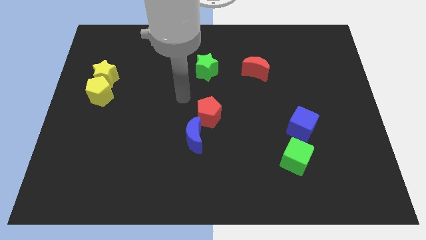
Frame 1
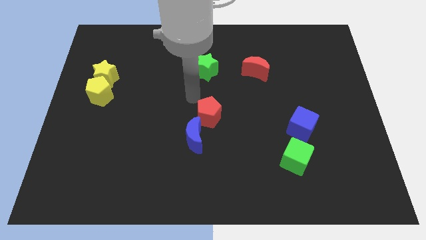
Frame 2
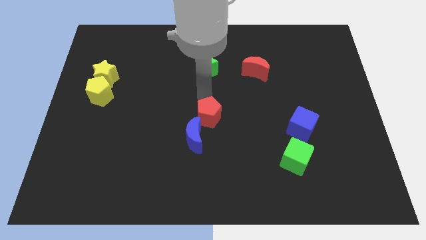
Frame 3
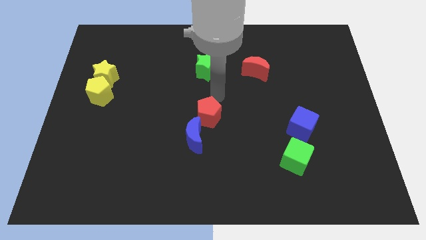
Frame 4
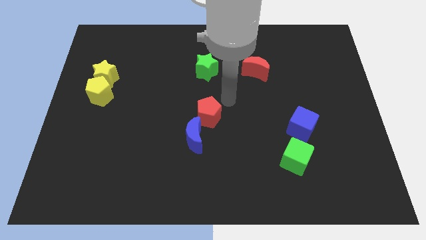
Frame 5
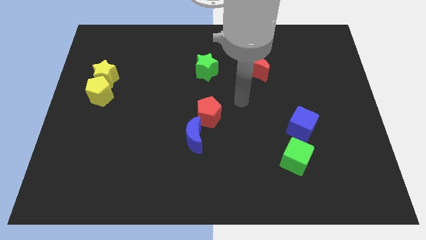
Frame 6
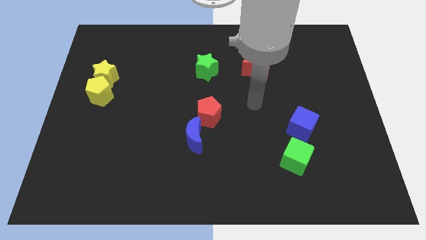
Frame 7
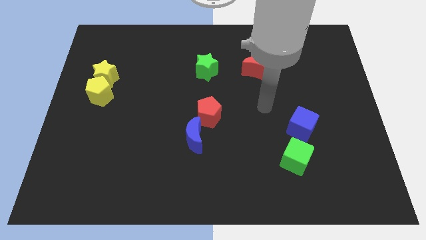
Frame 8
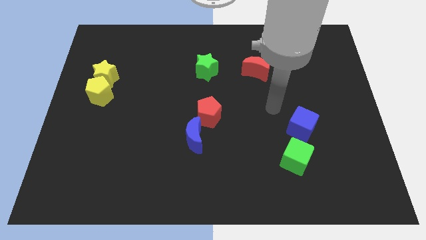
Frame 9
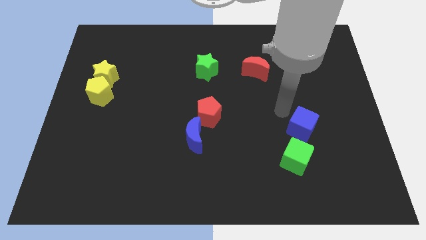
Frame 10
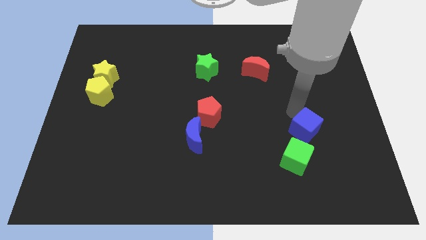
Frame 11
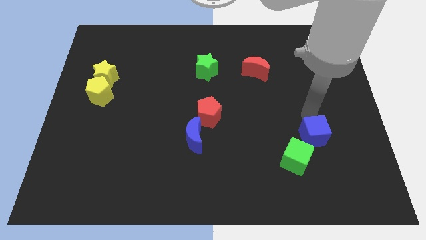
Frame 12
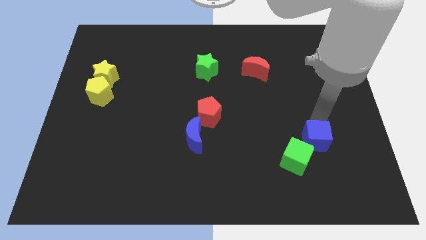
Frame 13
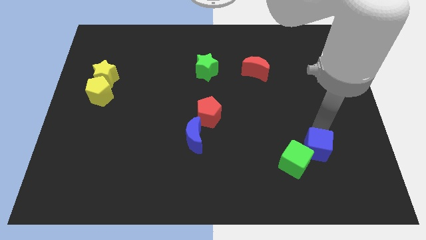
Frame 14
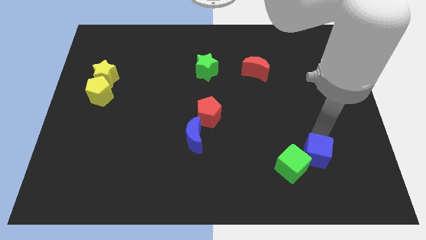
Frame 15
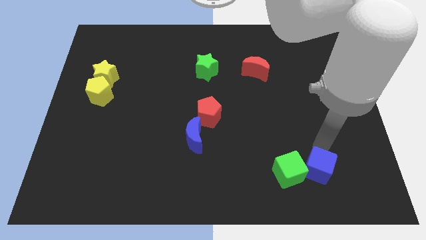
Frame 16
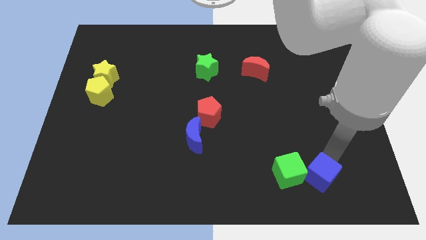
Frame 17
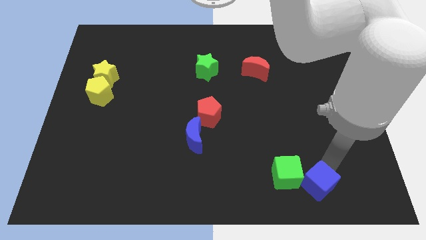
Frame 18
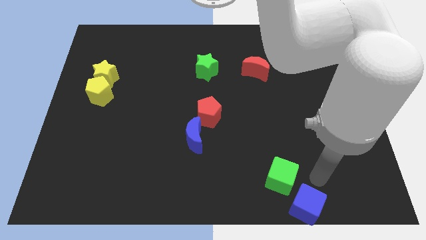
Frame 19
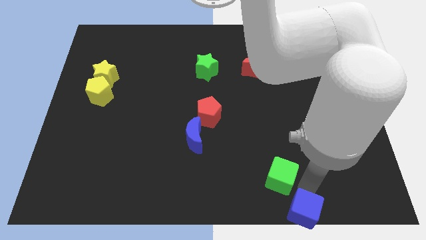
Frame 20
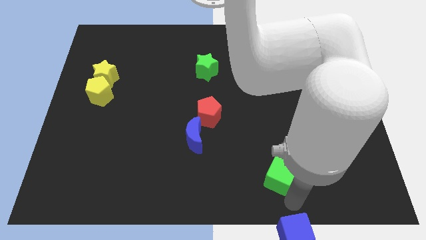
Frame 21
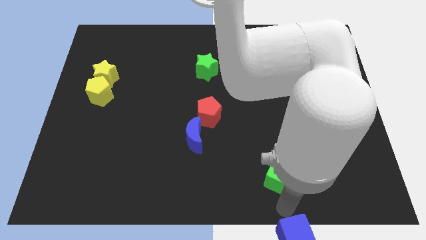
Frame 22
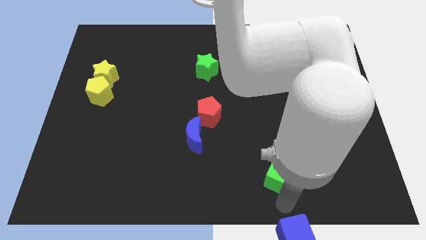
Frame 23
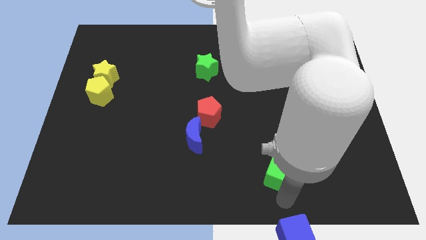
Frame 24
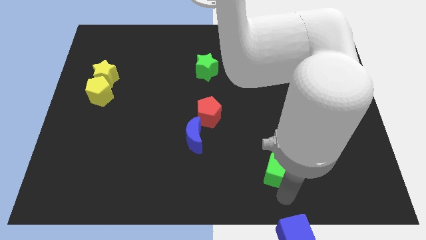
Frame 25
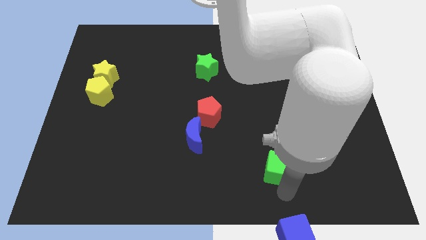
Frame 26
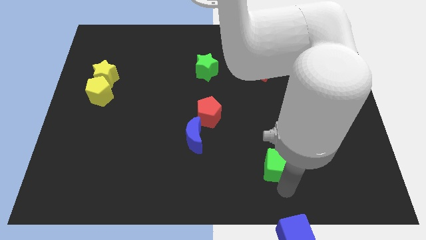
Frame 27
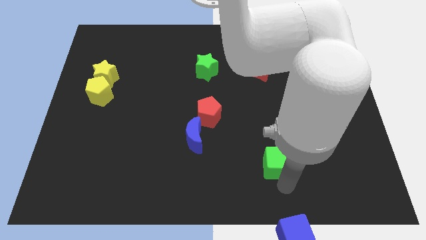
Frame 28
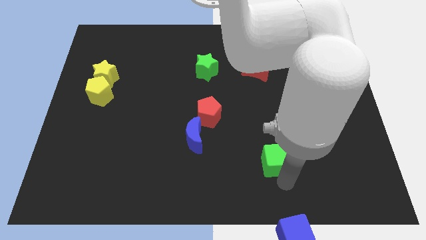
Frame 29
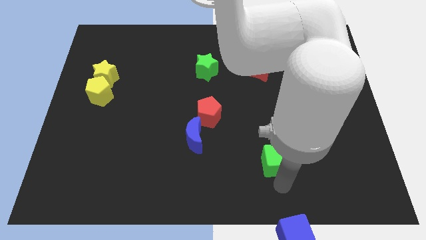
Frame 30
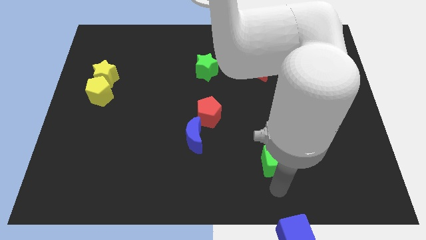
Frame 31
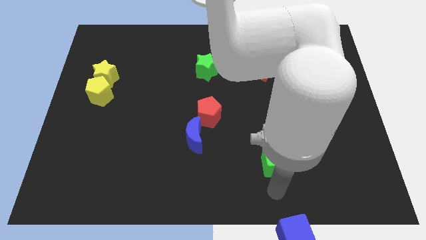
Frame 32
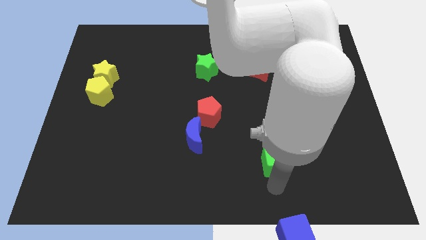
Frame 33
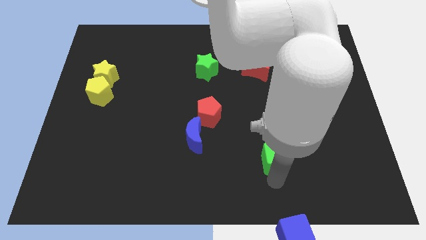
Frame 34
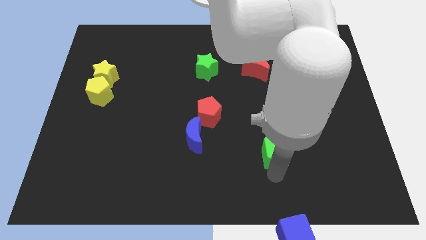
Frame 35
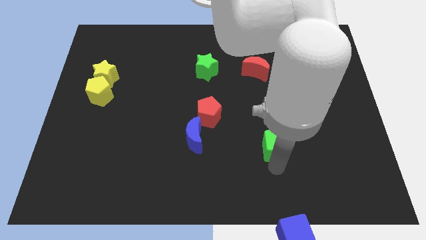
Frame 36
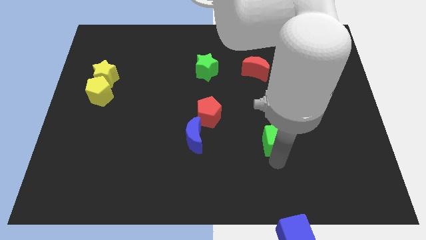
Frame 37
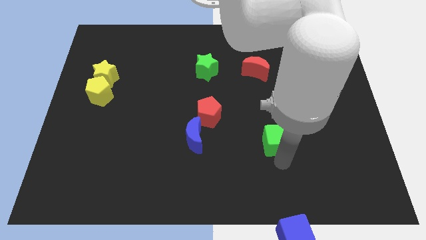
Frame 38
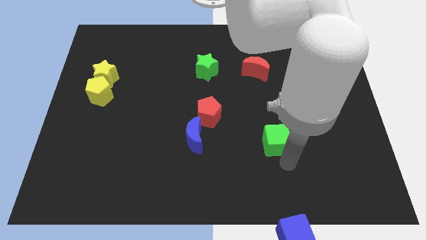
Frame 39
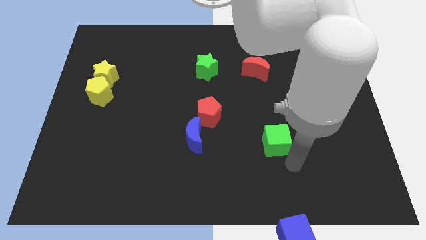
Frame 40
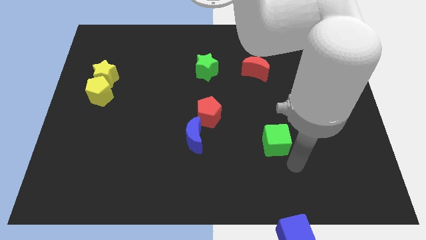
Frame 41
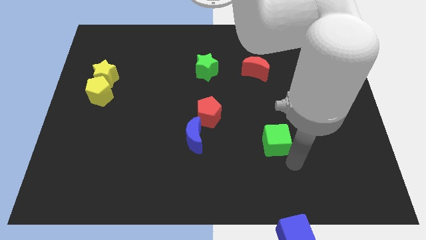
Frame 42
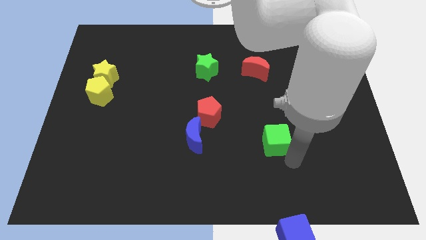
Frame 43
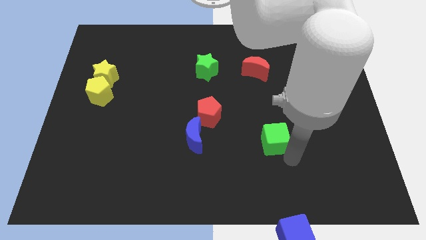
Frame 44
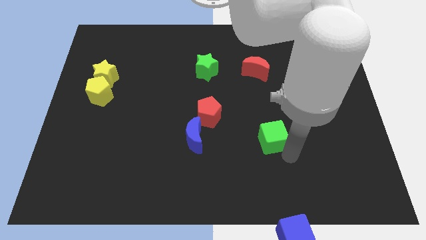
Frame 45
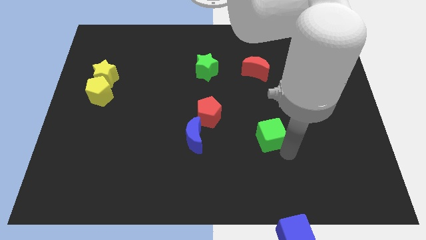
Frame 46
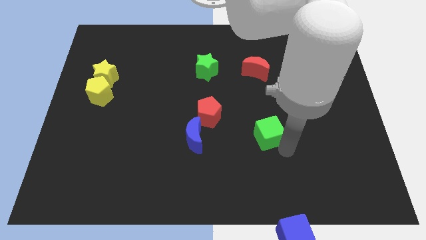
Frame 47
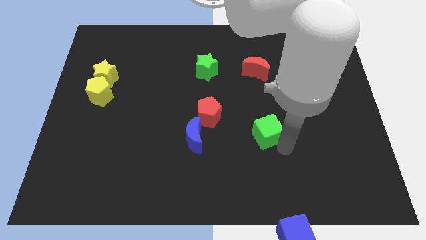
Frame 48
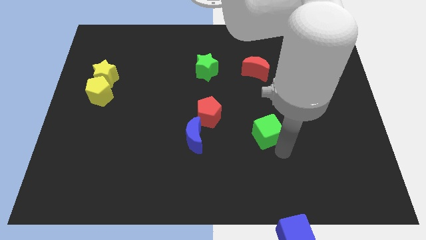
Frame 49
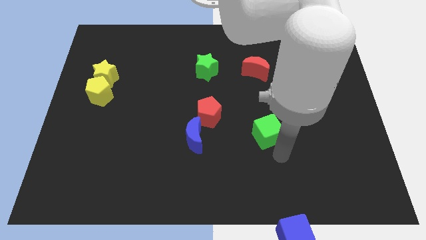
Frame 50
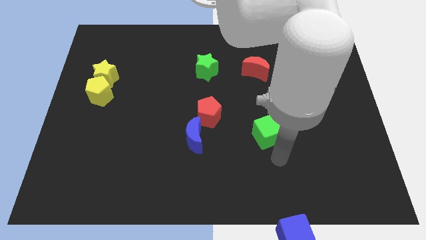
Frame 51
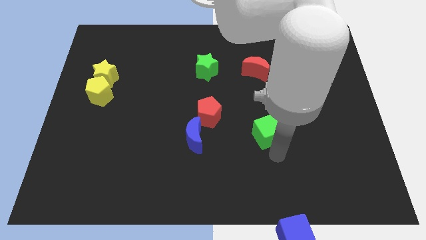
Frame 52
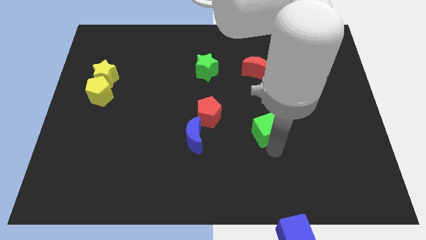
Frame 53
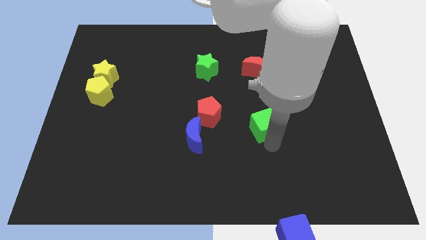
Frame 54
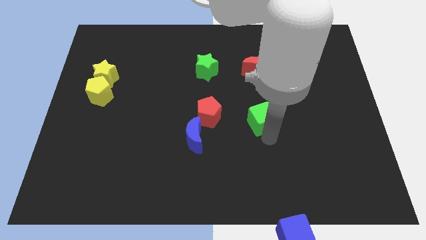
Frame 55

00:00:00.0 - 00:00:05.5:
move the green cube to the center of the board

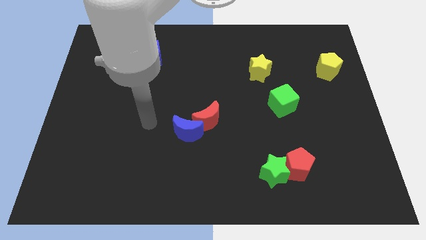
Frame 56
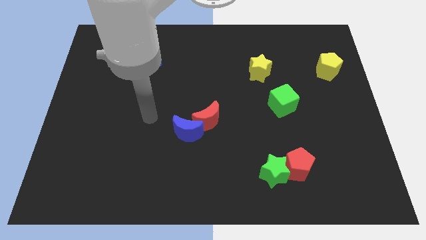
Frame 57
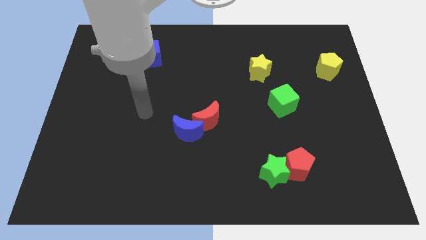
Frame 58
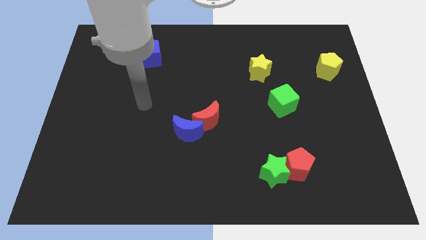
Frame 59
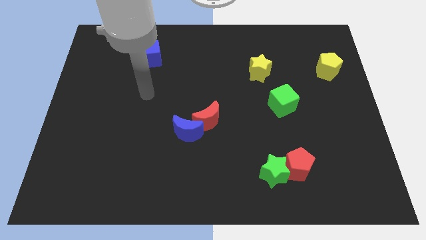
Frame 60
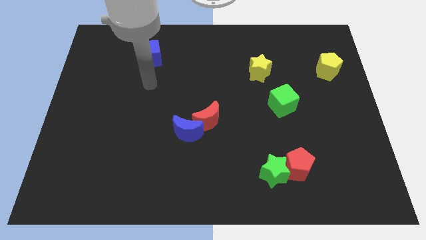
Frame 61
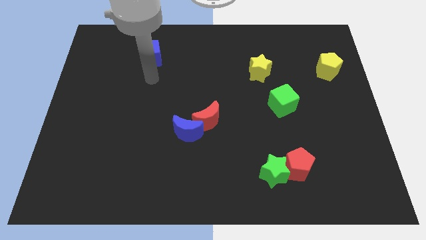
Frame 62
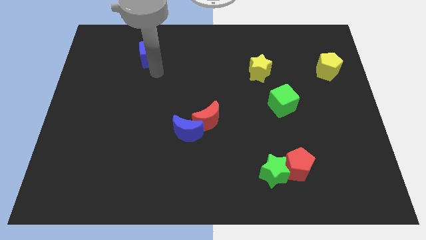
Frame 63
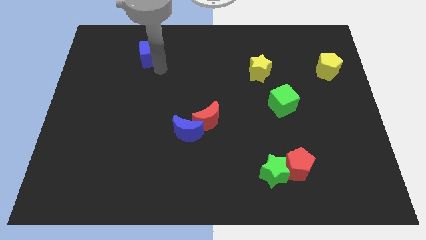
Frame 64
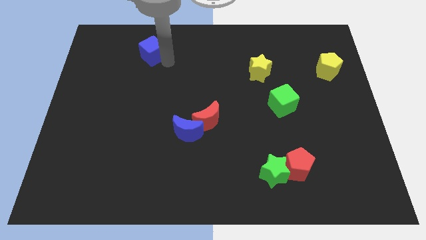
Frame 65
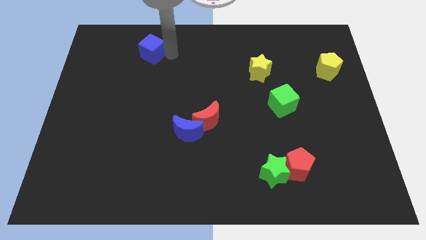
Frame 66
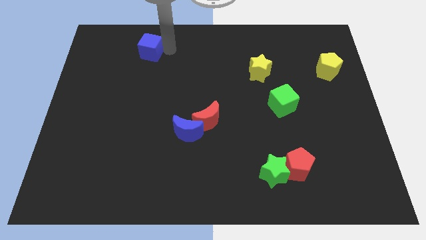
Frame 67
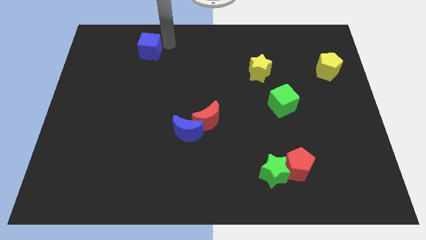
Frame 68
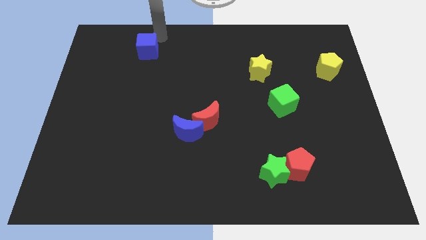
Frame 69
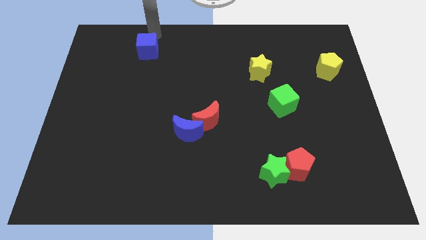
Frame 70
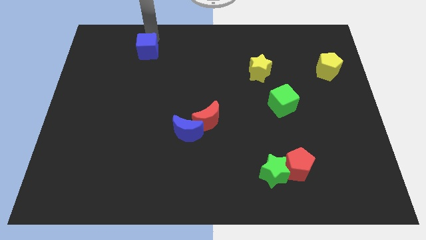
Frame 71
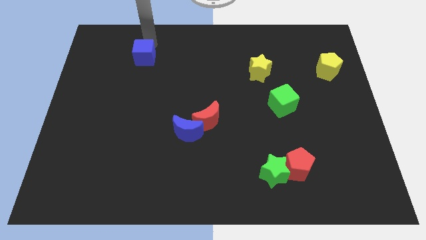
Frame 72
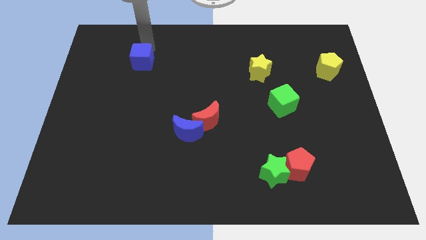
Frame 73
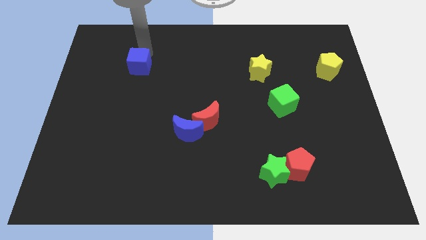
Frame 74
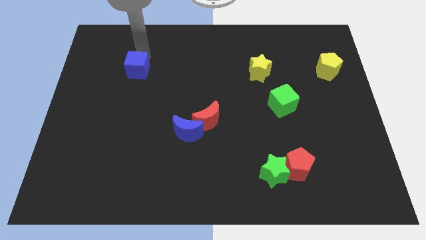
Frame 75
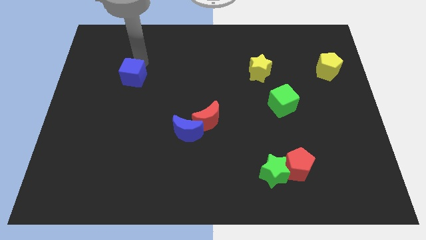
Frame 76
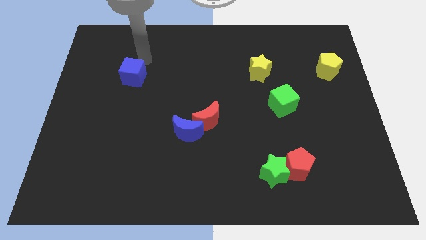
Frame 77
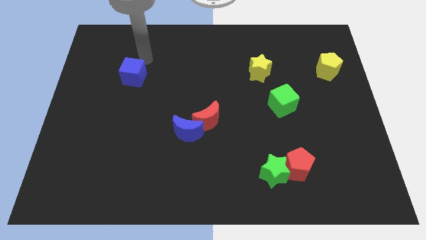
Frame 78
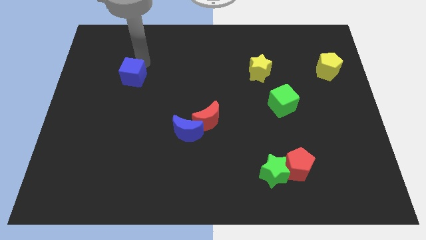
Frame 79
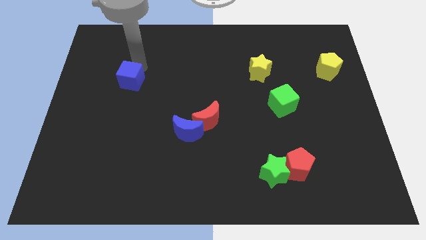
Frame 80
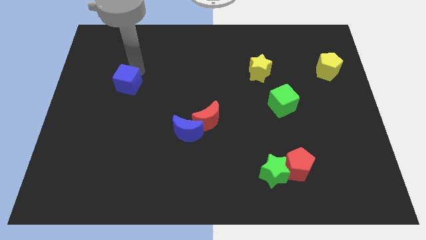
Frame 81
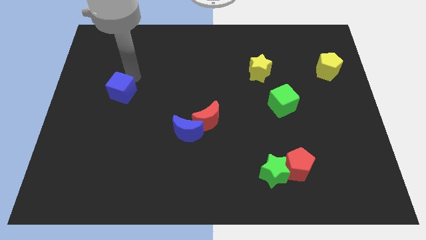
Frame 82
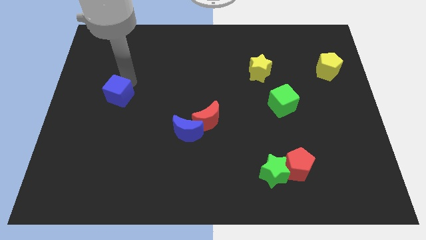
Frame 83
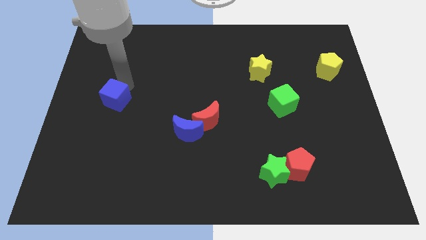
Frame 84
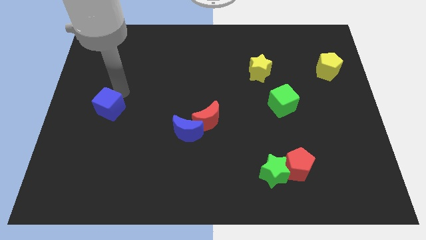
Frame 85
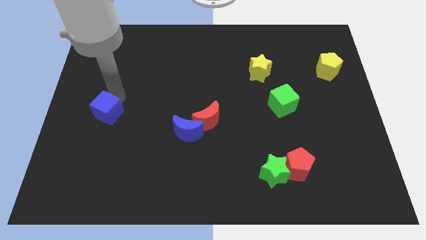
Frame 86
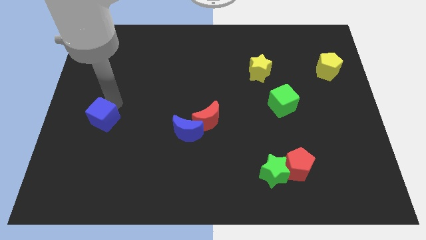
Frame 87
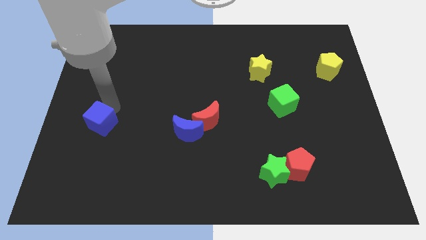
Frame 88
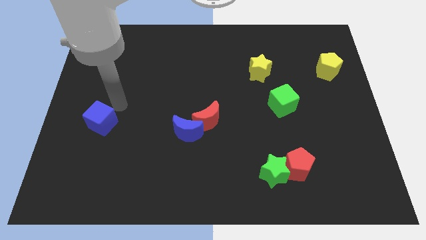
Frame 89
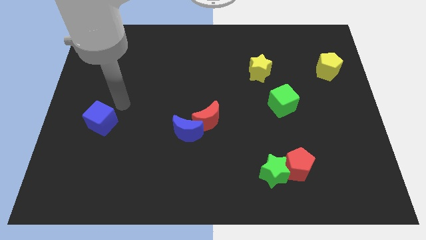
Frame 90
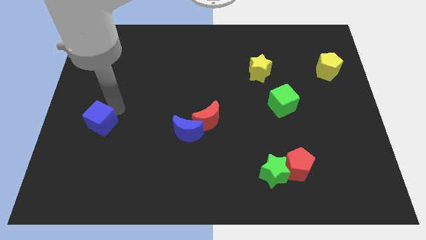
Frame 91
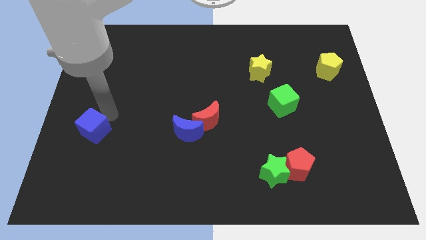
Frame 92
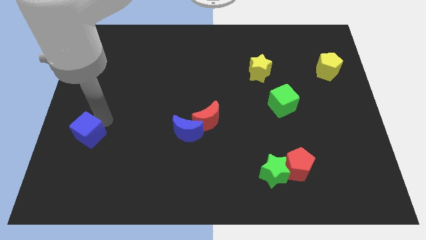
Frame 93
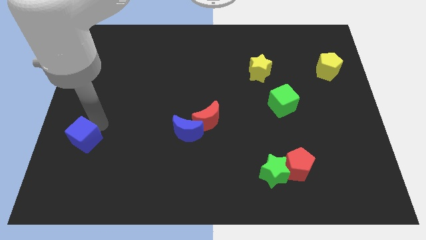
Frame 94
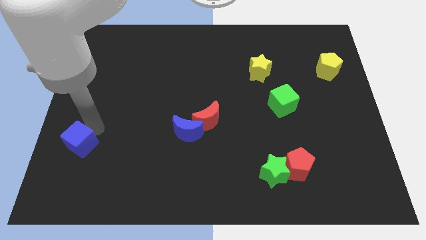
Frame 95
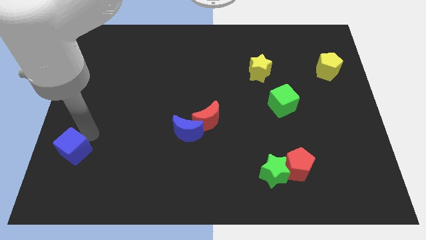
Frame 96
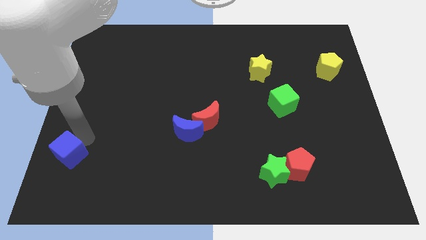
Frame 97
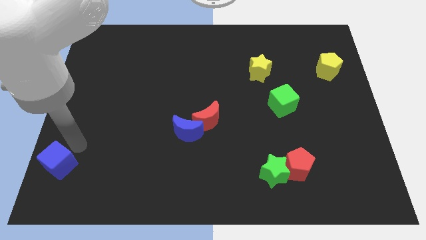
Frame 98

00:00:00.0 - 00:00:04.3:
move the blue cube to the bottom left of the board
